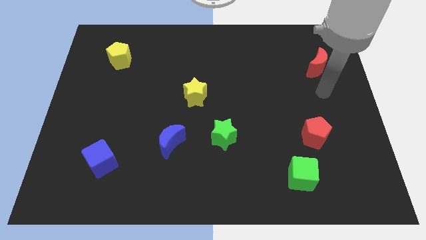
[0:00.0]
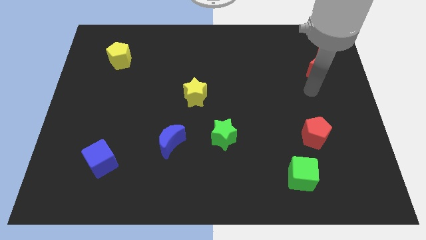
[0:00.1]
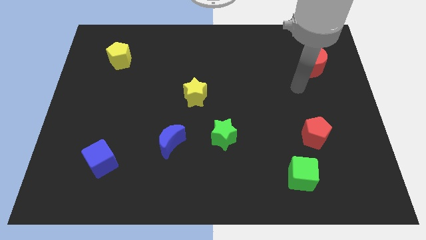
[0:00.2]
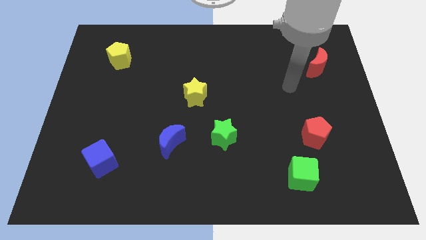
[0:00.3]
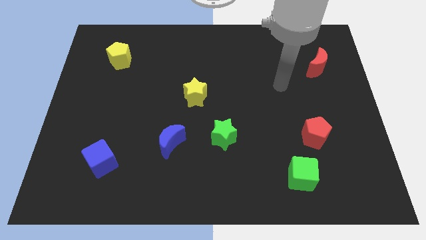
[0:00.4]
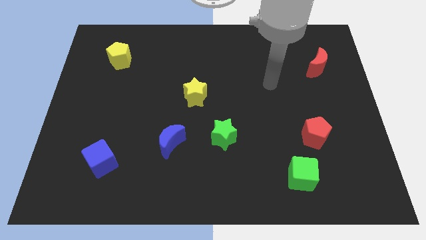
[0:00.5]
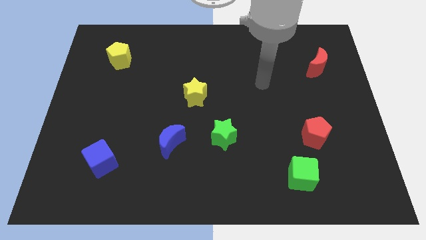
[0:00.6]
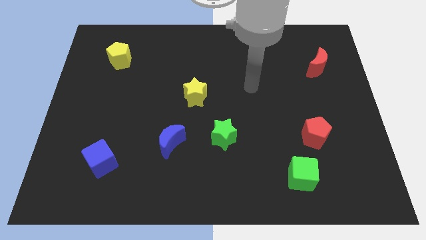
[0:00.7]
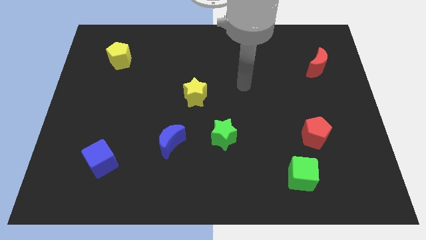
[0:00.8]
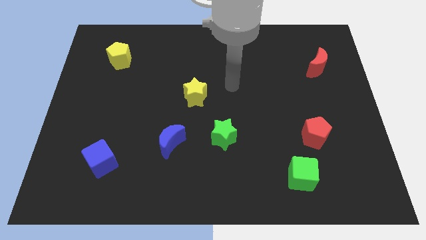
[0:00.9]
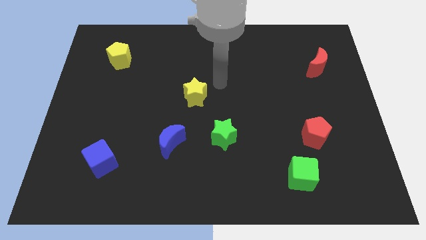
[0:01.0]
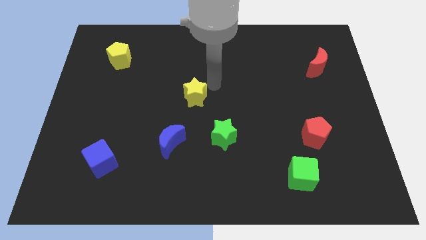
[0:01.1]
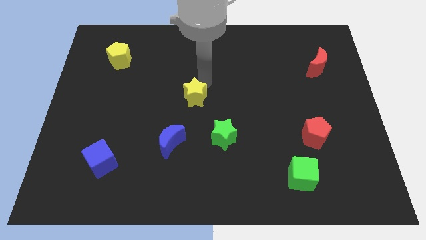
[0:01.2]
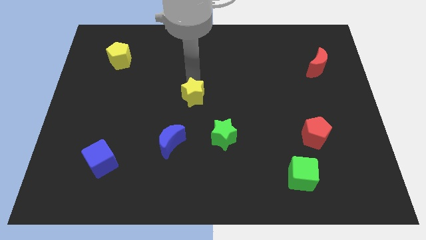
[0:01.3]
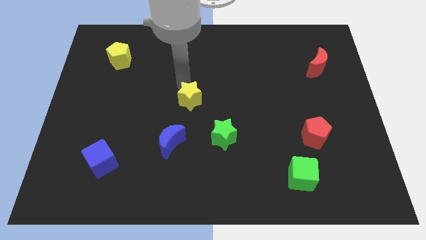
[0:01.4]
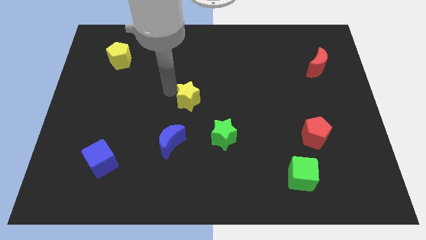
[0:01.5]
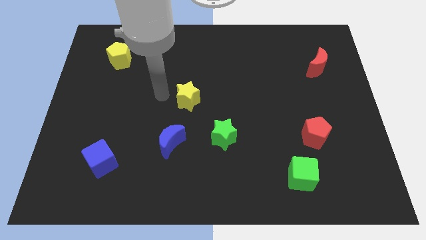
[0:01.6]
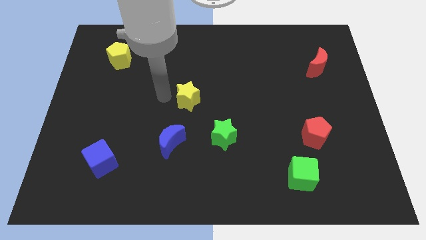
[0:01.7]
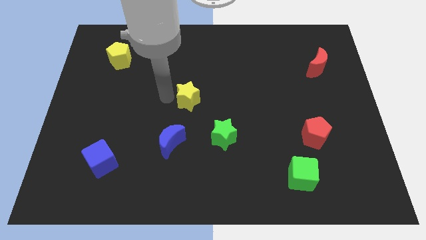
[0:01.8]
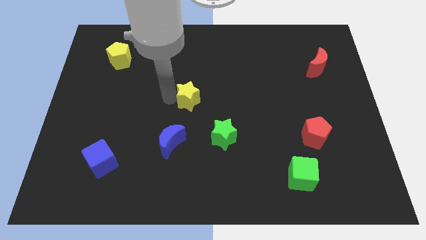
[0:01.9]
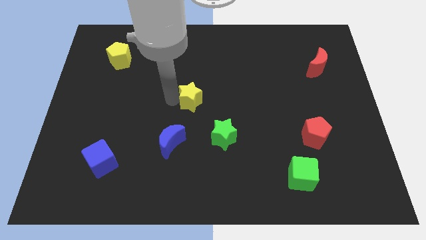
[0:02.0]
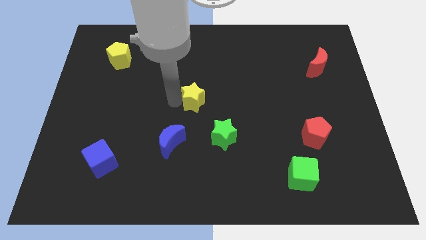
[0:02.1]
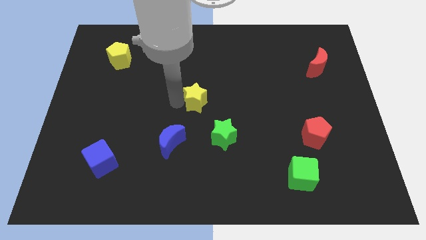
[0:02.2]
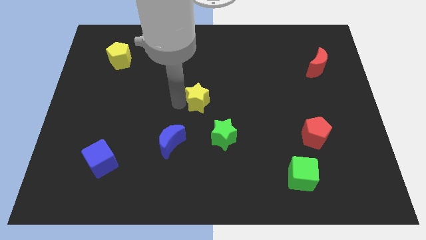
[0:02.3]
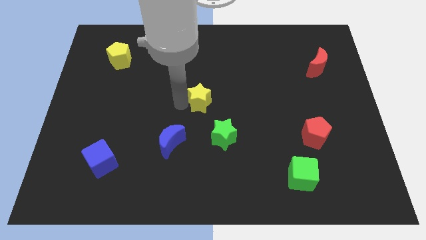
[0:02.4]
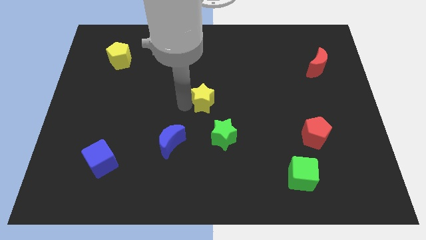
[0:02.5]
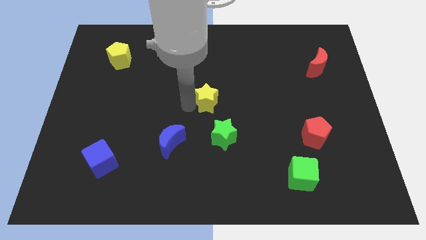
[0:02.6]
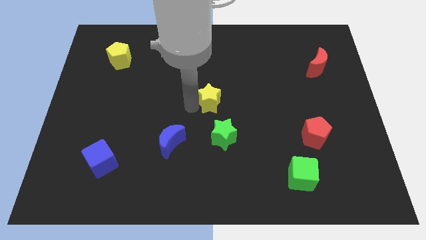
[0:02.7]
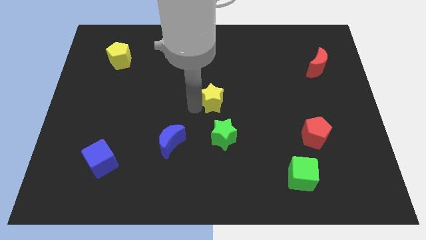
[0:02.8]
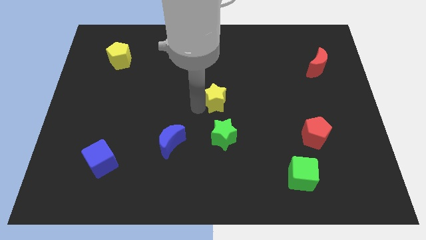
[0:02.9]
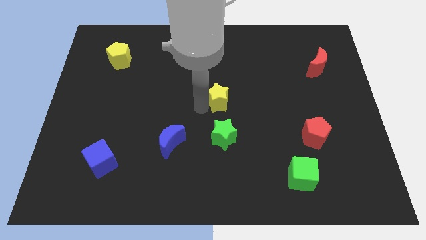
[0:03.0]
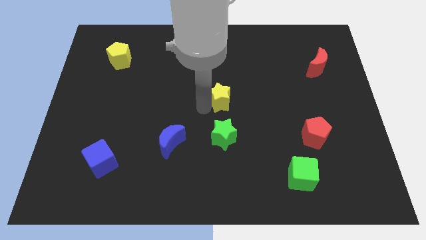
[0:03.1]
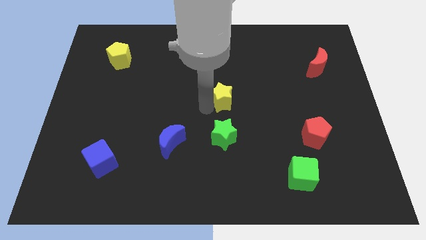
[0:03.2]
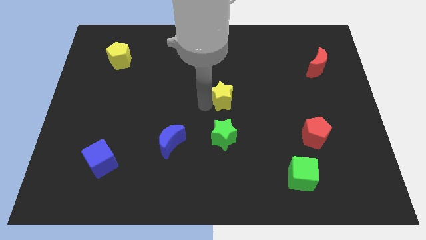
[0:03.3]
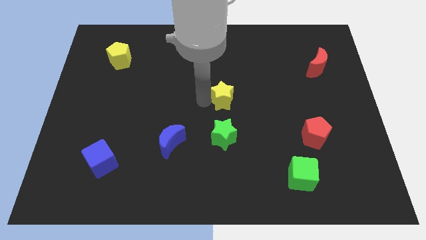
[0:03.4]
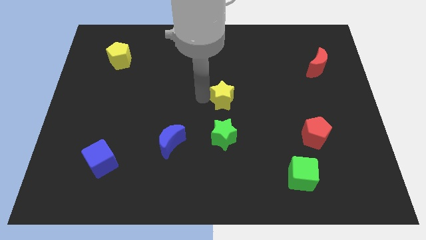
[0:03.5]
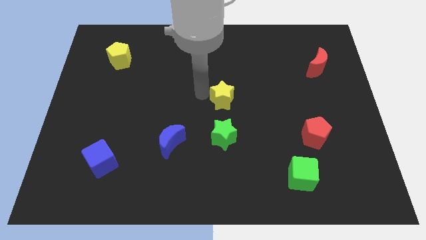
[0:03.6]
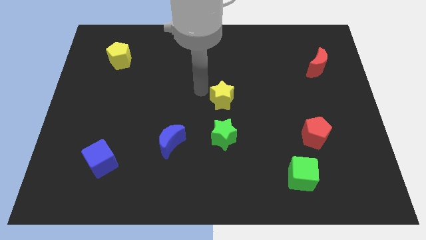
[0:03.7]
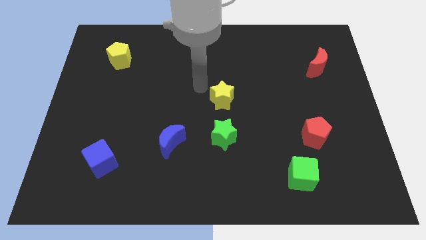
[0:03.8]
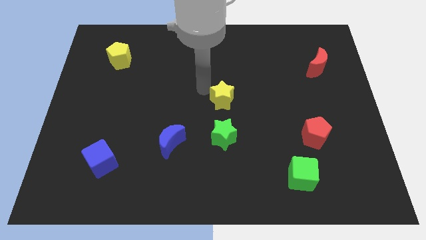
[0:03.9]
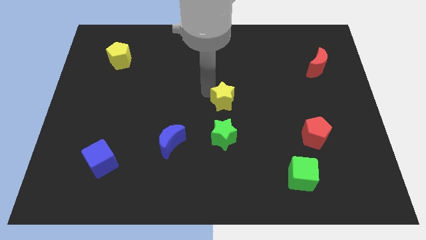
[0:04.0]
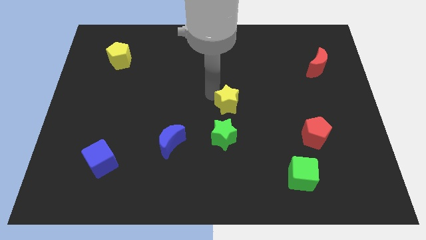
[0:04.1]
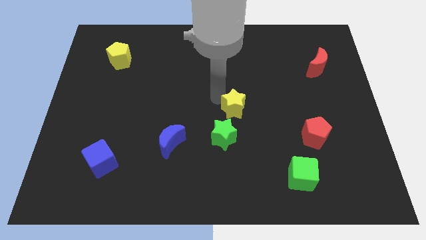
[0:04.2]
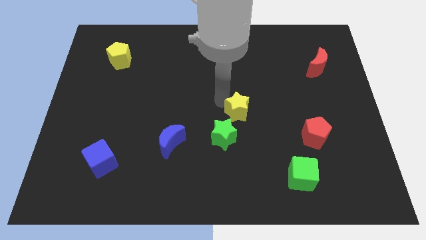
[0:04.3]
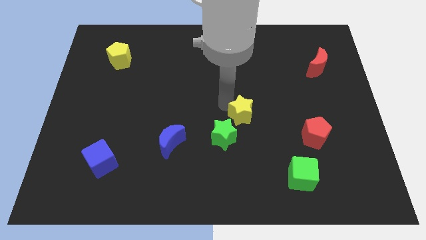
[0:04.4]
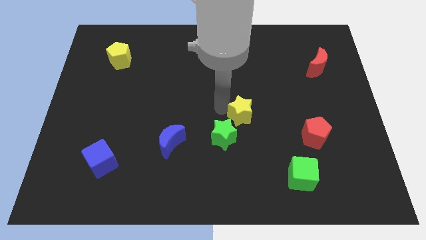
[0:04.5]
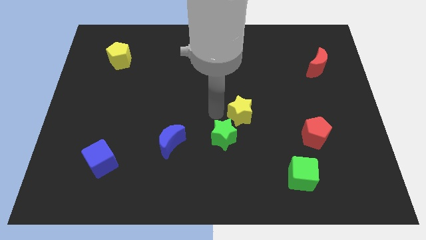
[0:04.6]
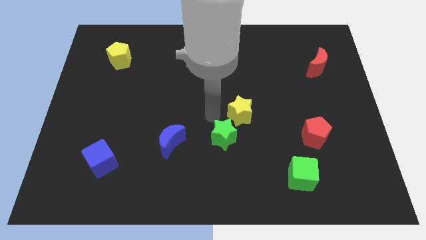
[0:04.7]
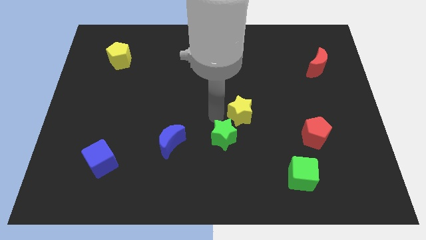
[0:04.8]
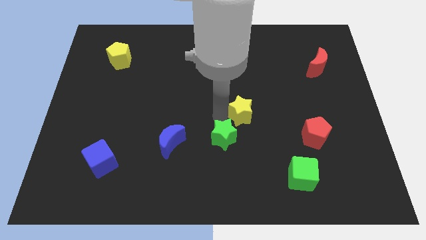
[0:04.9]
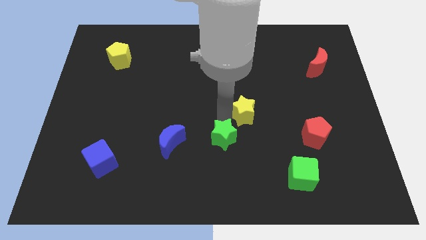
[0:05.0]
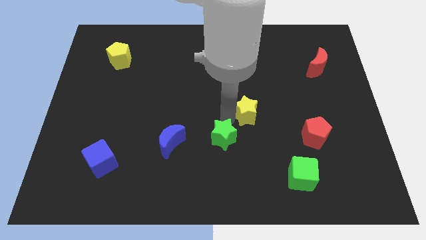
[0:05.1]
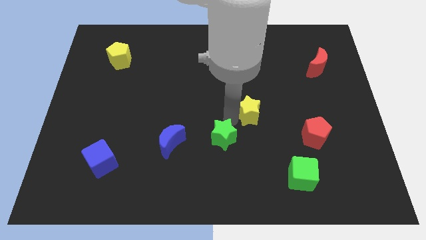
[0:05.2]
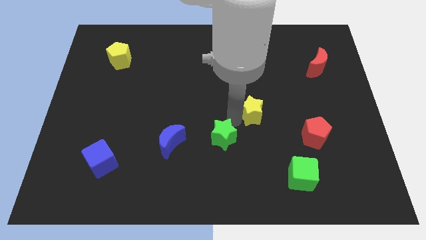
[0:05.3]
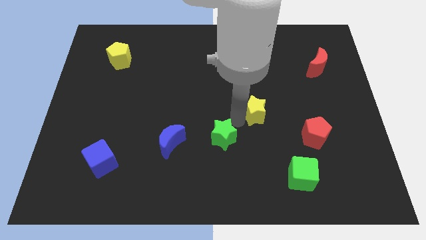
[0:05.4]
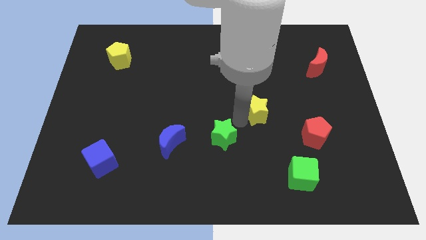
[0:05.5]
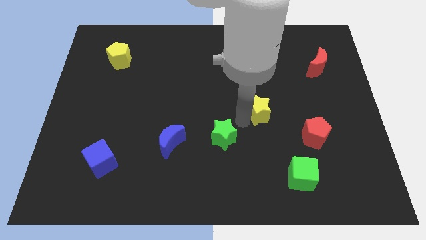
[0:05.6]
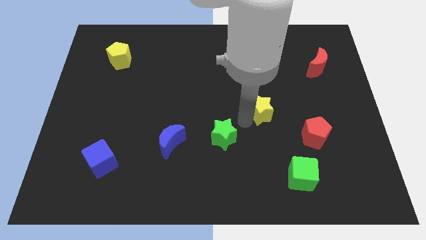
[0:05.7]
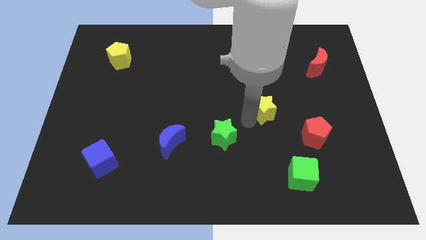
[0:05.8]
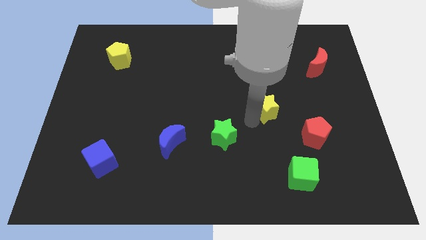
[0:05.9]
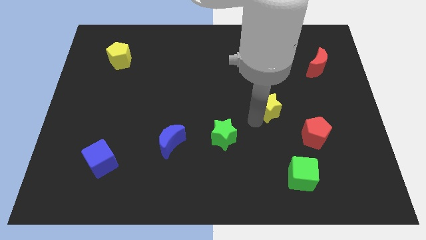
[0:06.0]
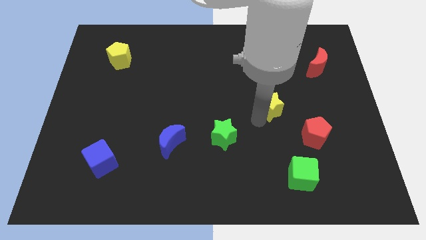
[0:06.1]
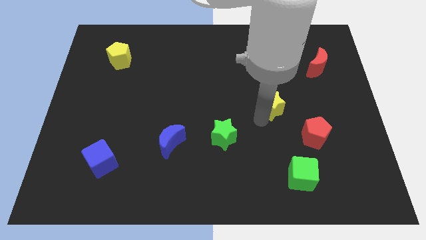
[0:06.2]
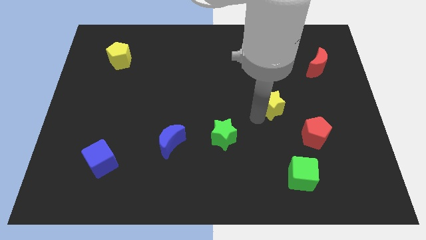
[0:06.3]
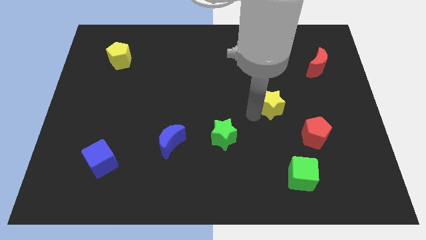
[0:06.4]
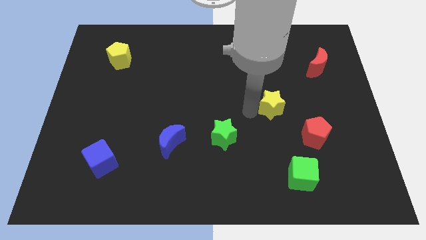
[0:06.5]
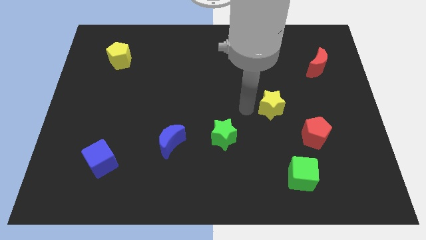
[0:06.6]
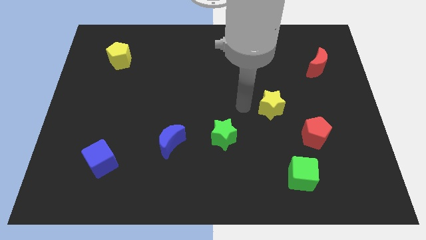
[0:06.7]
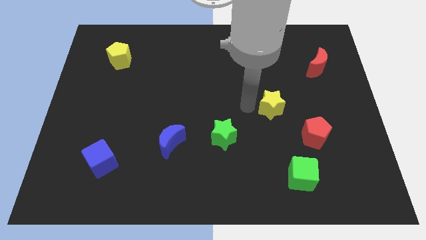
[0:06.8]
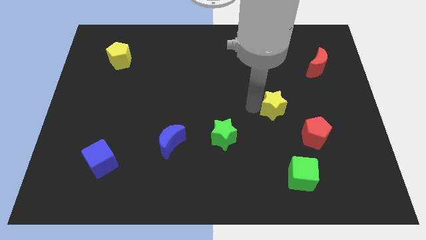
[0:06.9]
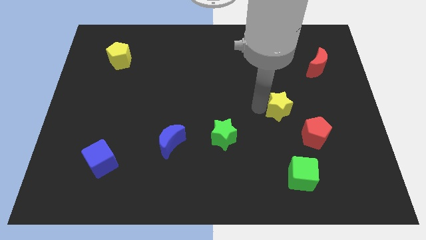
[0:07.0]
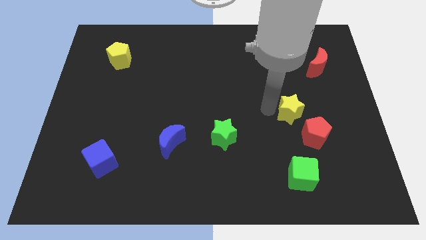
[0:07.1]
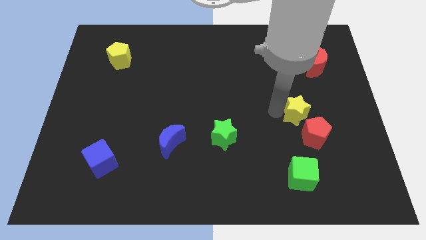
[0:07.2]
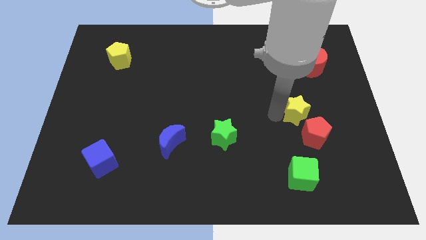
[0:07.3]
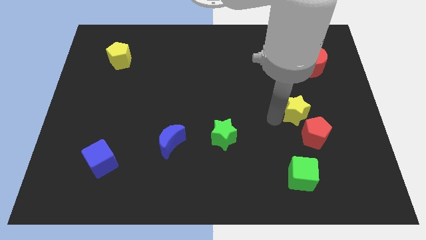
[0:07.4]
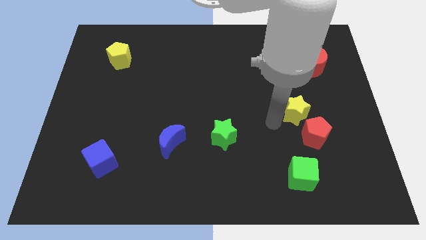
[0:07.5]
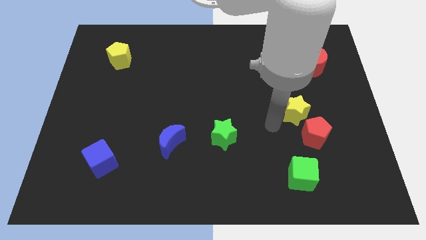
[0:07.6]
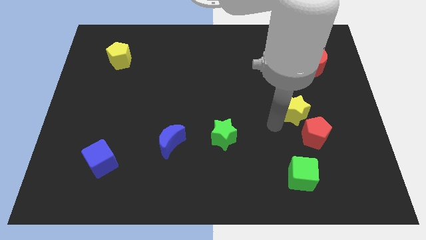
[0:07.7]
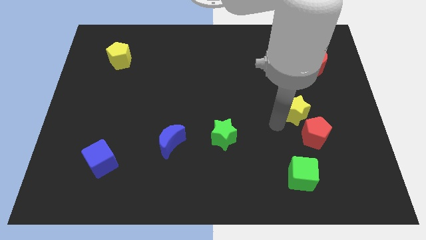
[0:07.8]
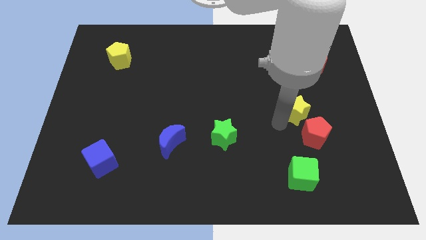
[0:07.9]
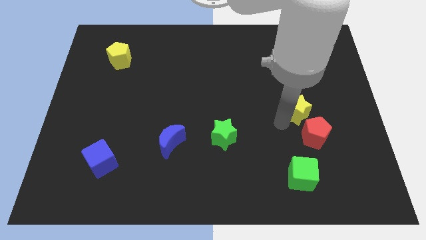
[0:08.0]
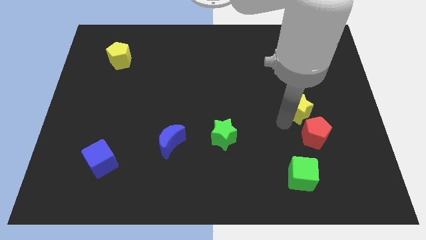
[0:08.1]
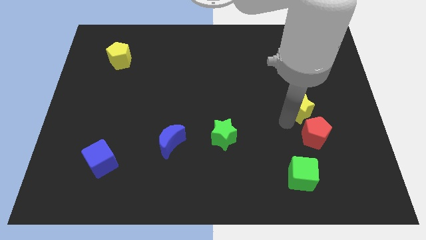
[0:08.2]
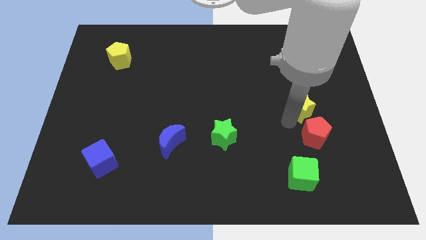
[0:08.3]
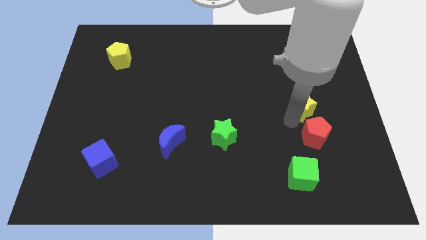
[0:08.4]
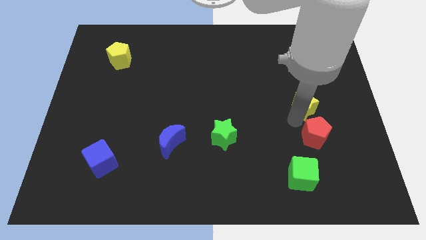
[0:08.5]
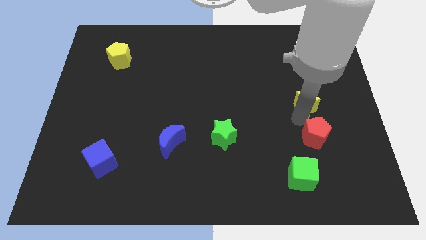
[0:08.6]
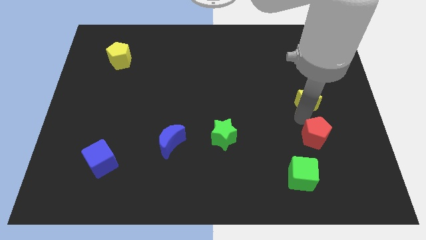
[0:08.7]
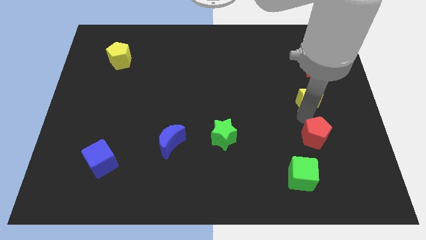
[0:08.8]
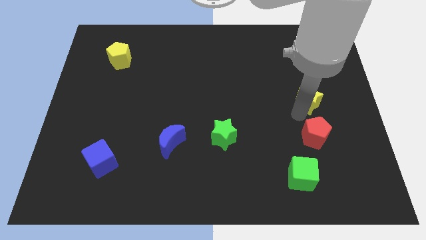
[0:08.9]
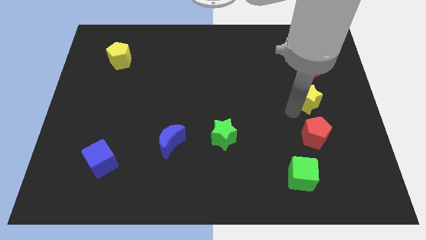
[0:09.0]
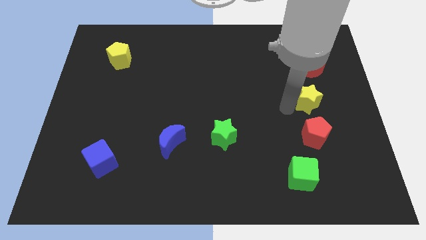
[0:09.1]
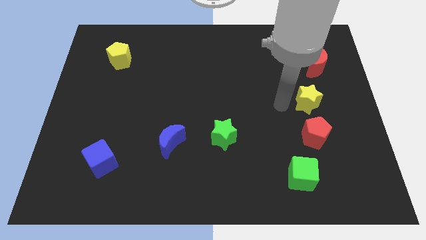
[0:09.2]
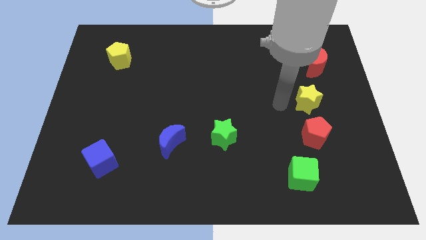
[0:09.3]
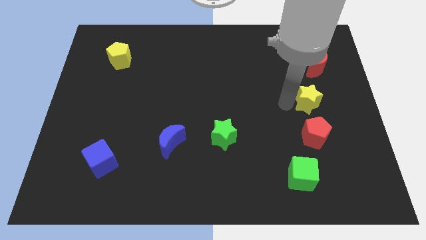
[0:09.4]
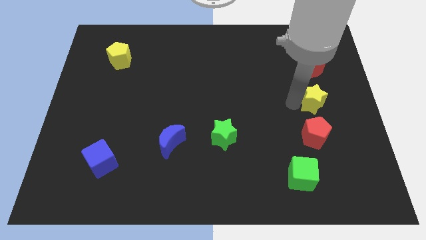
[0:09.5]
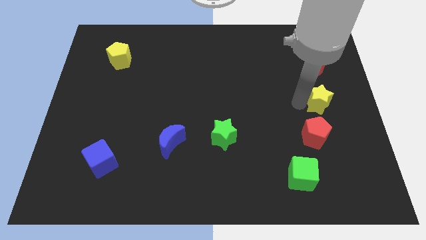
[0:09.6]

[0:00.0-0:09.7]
slide the yellow star to the right side
